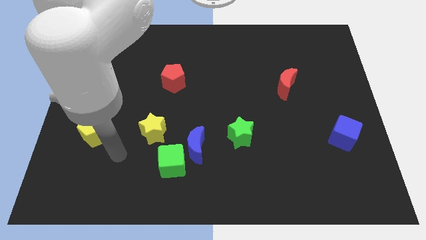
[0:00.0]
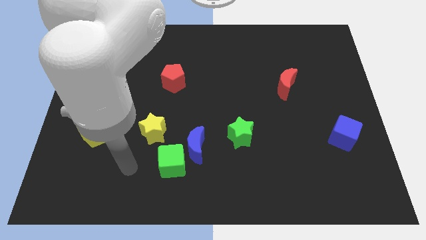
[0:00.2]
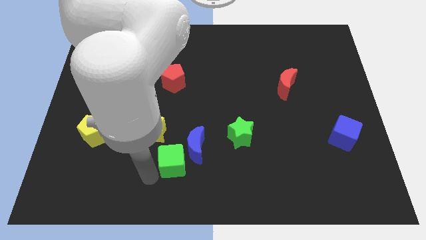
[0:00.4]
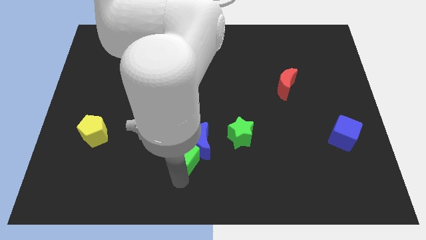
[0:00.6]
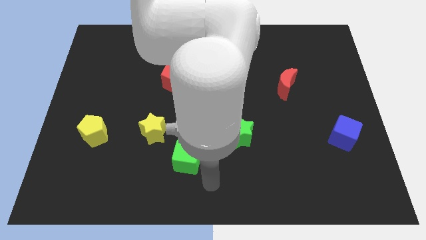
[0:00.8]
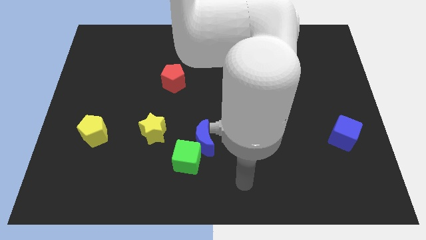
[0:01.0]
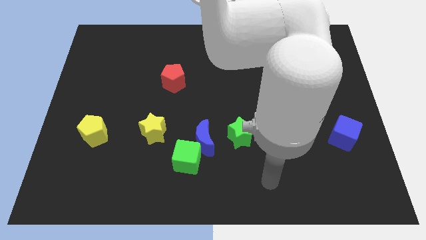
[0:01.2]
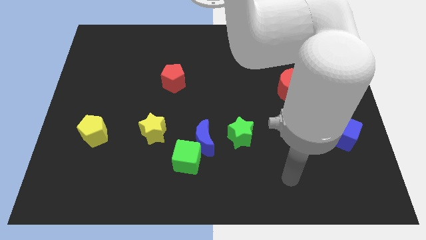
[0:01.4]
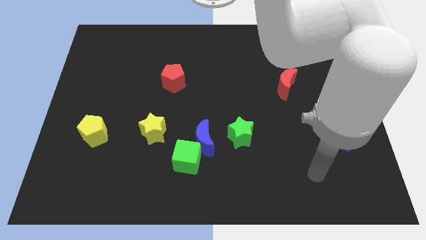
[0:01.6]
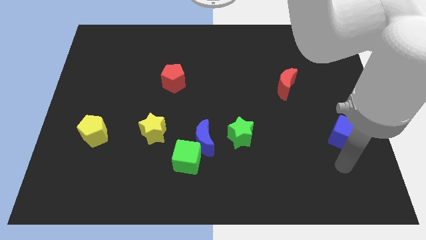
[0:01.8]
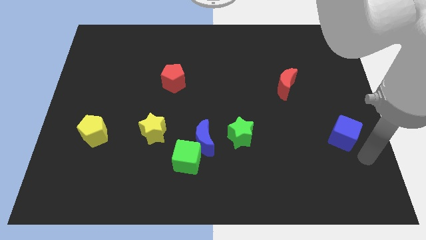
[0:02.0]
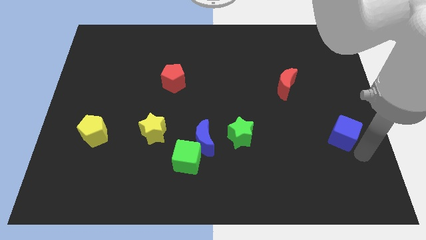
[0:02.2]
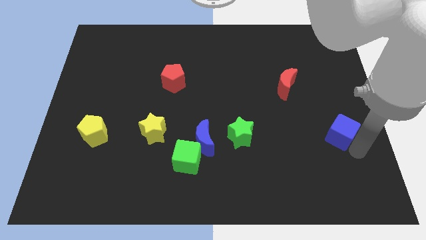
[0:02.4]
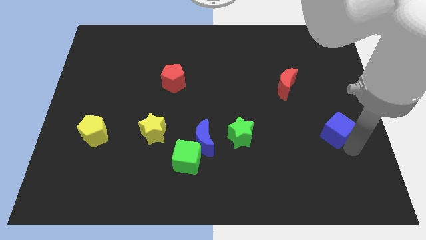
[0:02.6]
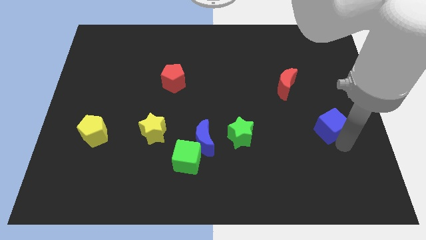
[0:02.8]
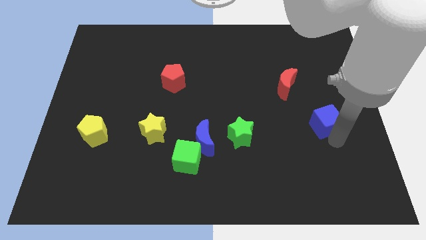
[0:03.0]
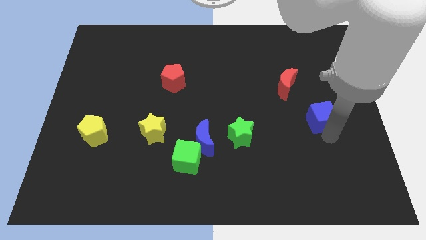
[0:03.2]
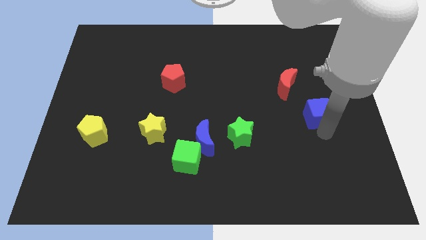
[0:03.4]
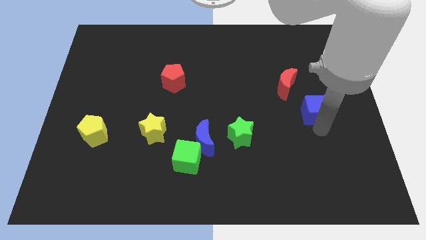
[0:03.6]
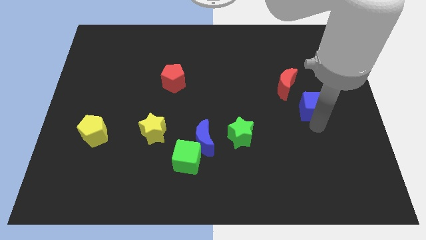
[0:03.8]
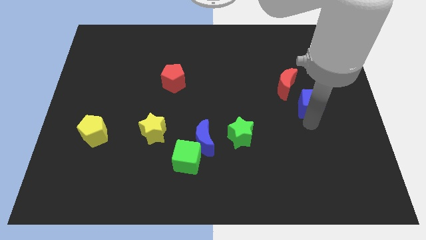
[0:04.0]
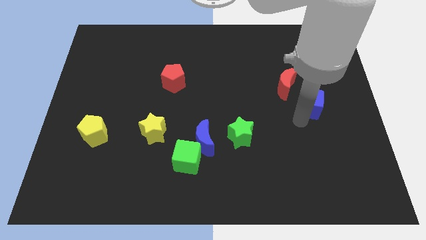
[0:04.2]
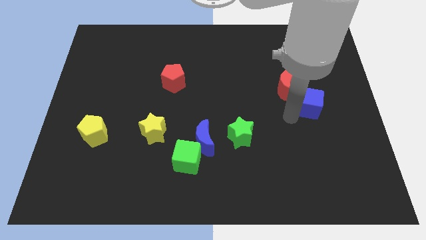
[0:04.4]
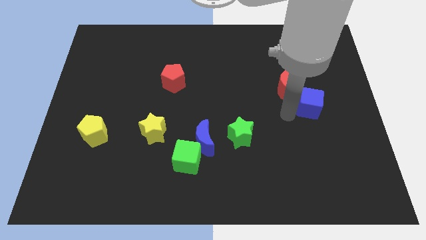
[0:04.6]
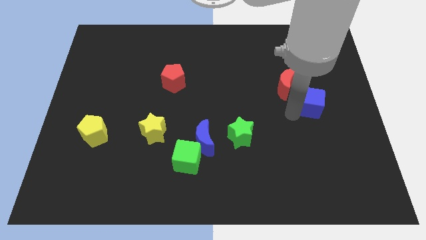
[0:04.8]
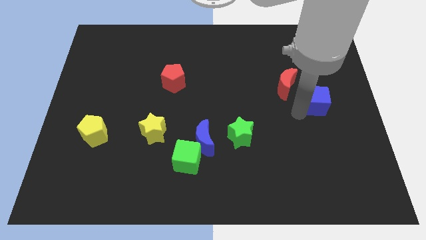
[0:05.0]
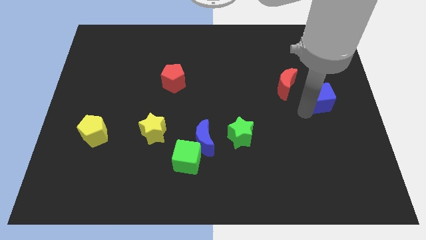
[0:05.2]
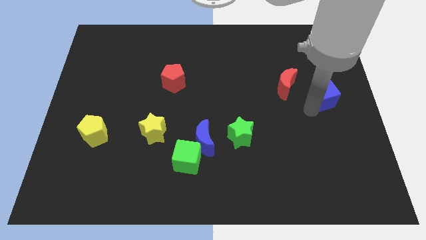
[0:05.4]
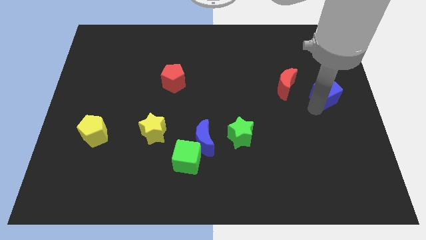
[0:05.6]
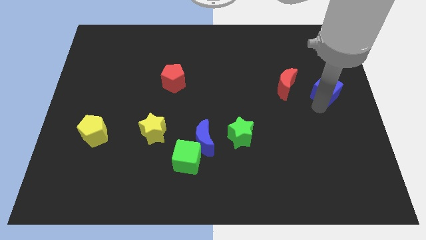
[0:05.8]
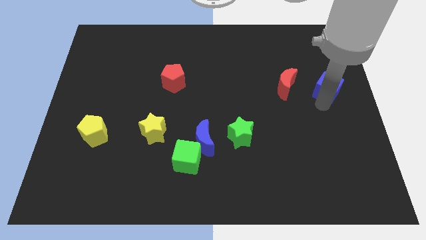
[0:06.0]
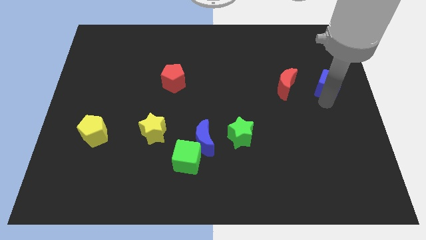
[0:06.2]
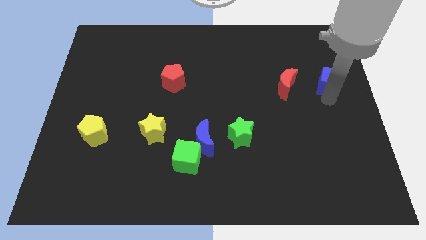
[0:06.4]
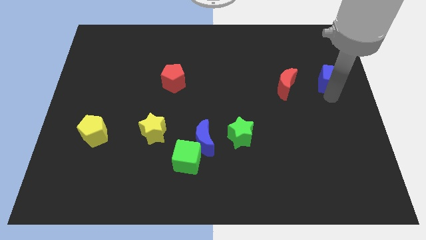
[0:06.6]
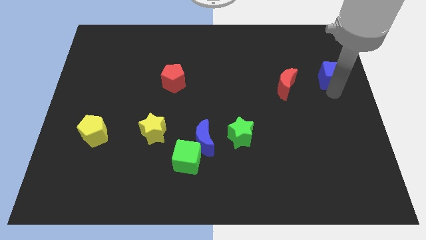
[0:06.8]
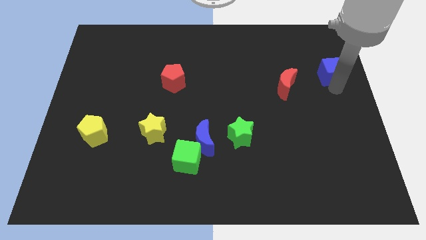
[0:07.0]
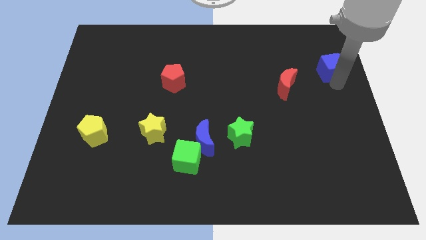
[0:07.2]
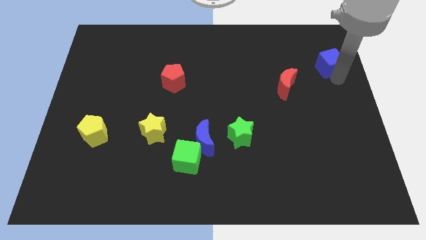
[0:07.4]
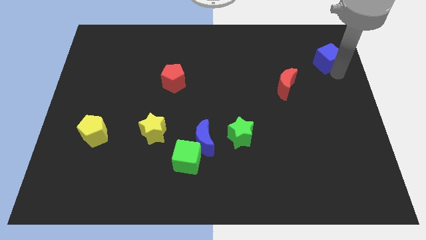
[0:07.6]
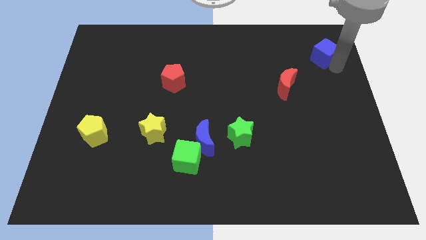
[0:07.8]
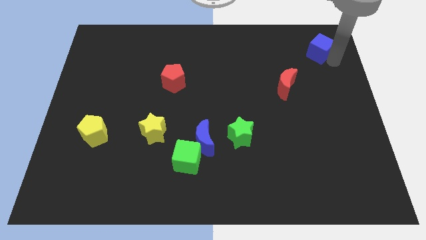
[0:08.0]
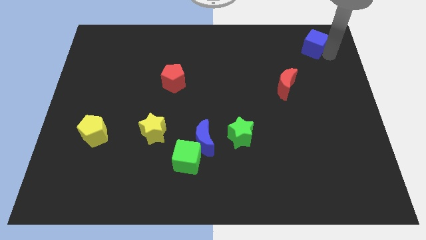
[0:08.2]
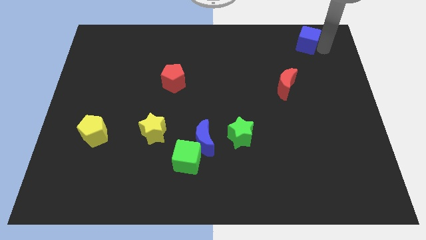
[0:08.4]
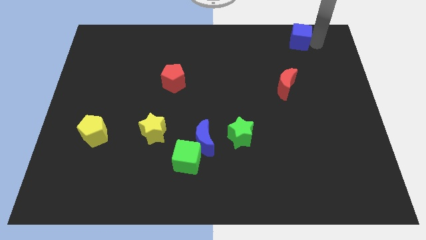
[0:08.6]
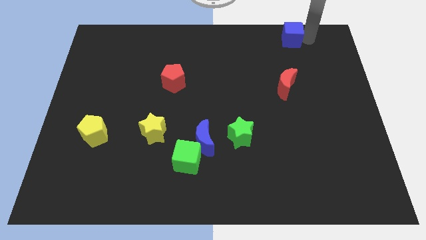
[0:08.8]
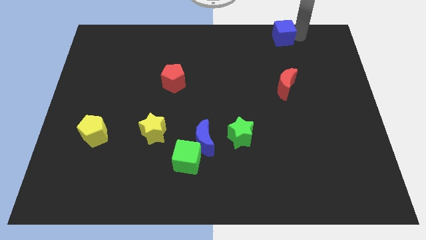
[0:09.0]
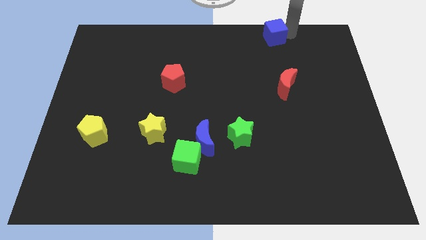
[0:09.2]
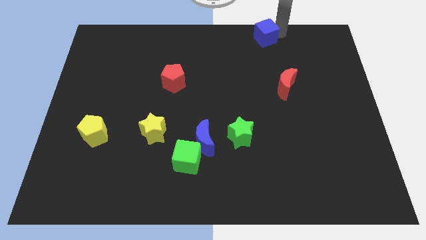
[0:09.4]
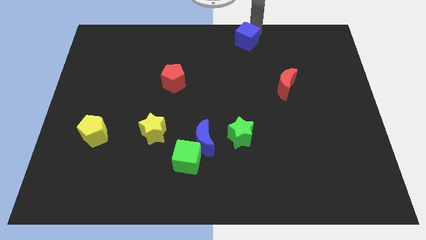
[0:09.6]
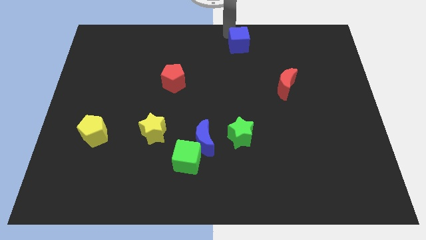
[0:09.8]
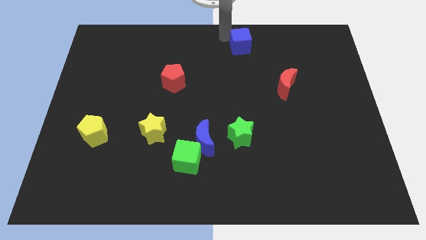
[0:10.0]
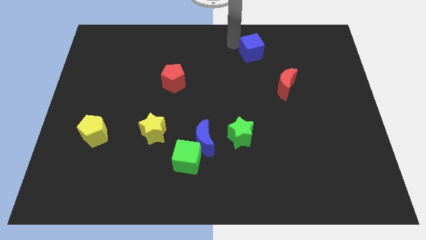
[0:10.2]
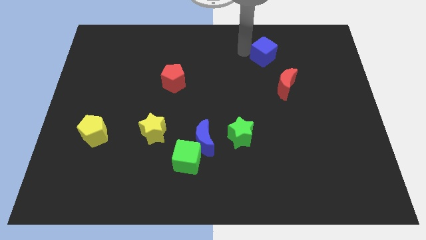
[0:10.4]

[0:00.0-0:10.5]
put the blue cube above the red moon

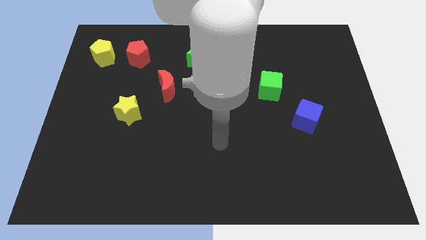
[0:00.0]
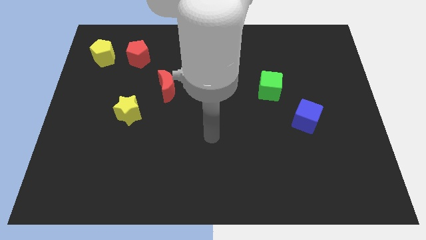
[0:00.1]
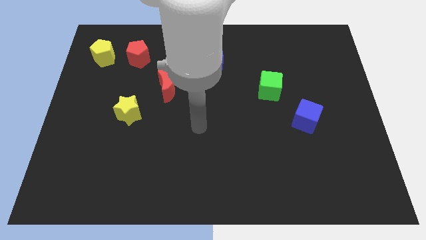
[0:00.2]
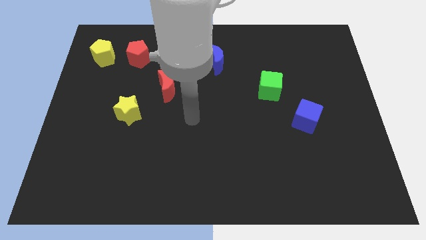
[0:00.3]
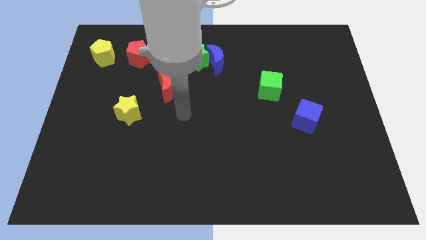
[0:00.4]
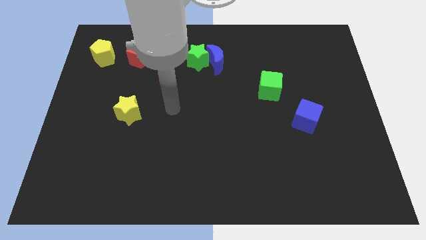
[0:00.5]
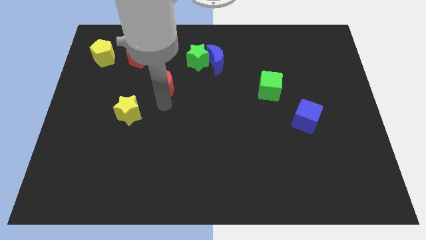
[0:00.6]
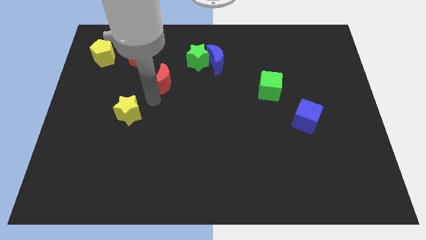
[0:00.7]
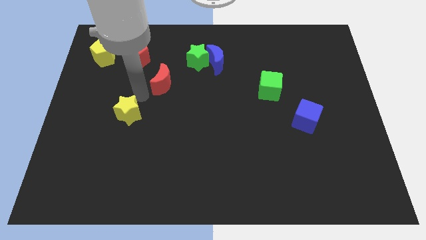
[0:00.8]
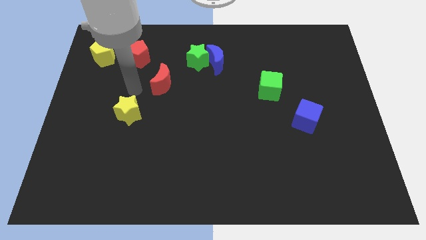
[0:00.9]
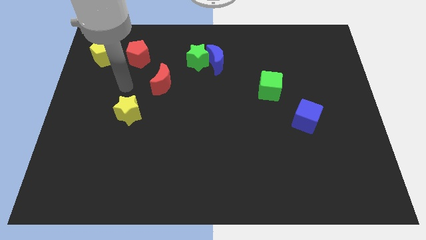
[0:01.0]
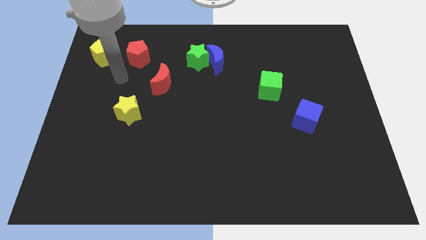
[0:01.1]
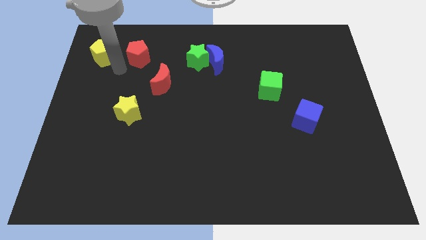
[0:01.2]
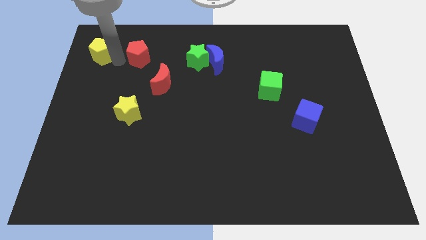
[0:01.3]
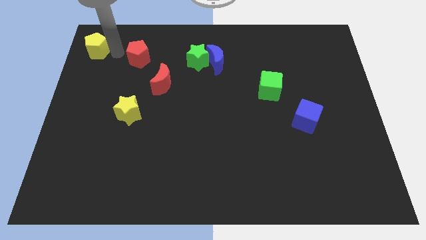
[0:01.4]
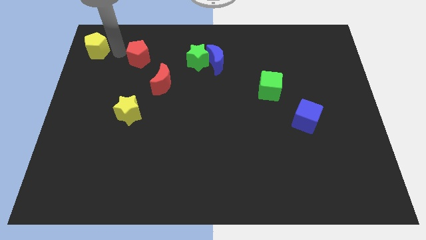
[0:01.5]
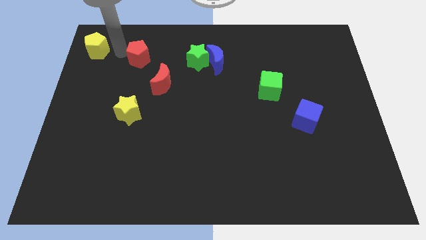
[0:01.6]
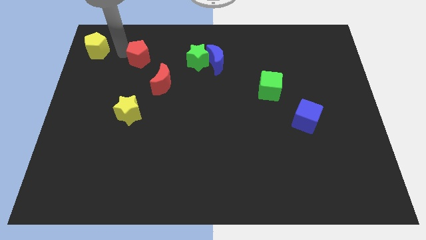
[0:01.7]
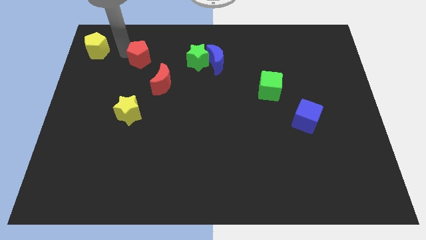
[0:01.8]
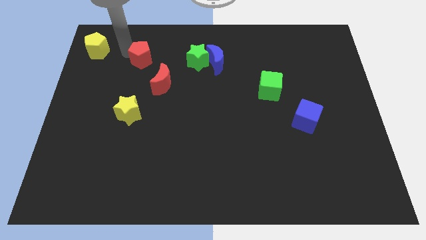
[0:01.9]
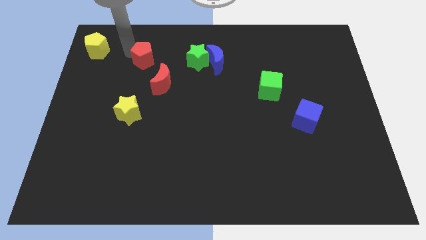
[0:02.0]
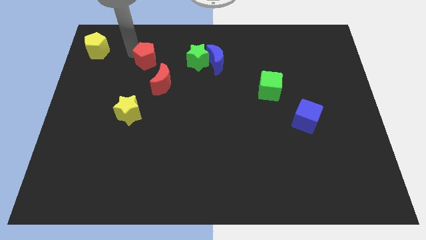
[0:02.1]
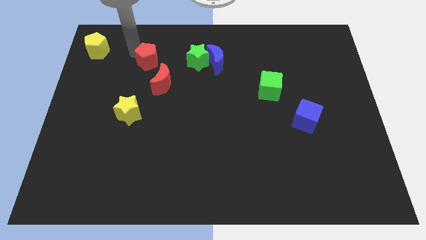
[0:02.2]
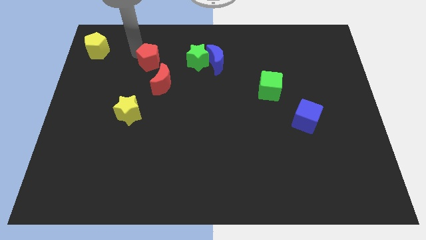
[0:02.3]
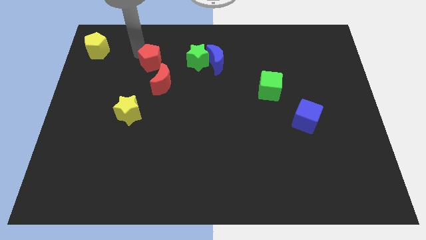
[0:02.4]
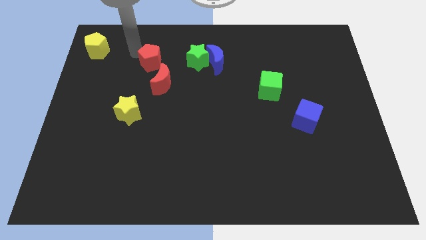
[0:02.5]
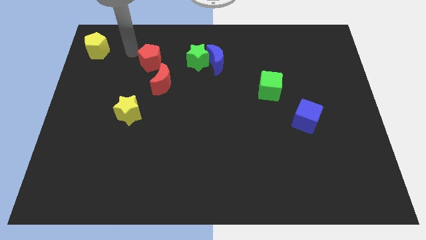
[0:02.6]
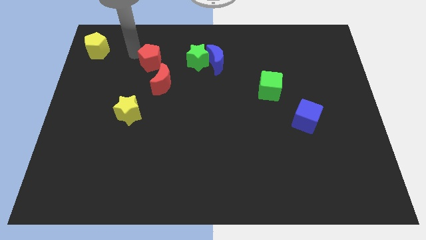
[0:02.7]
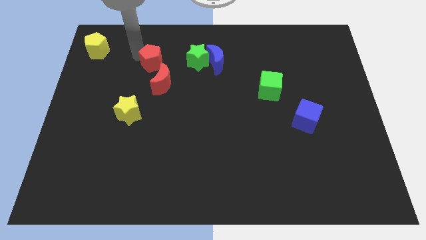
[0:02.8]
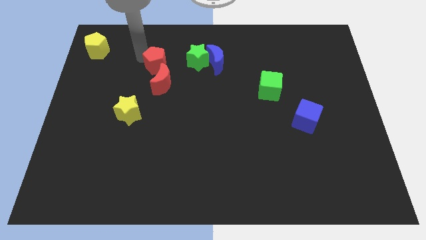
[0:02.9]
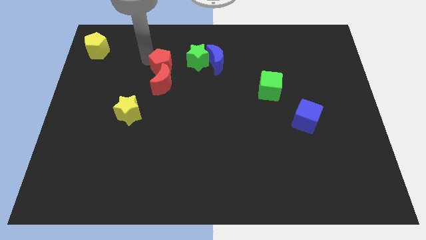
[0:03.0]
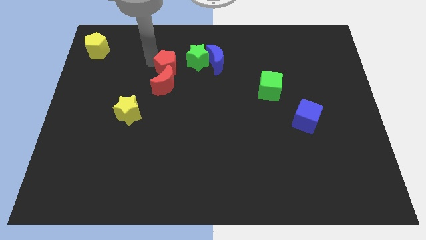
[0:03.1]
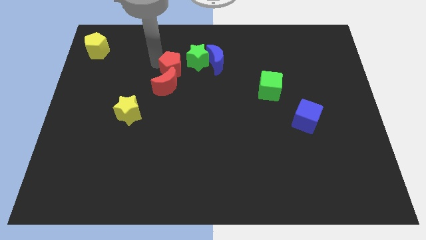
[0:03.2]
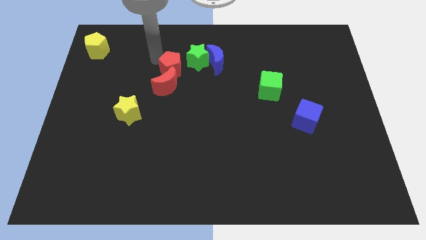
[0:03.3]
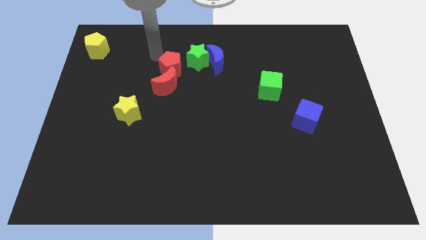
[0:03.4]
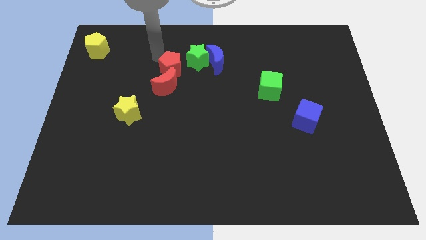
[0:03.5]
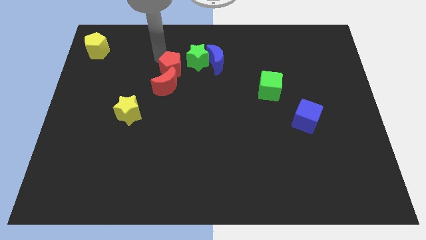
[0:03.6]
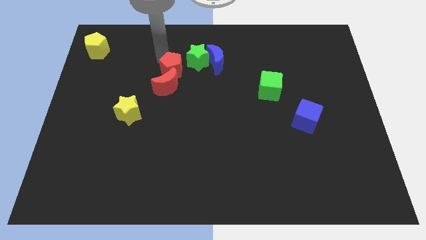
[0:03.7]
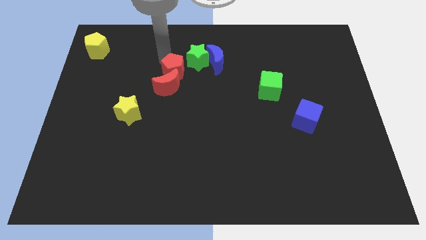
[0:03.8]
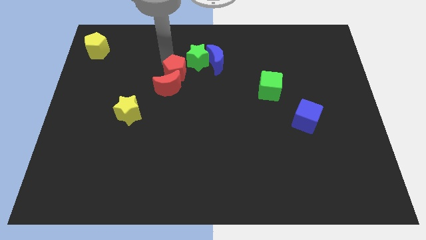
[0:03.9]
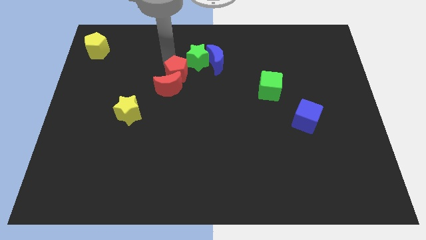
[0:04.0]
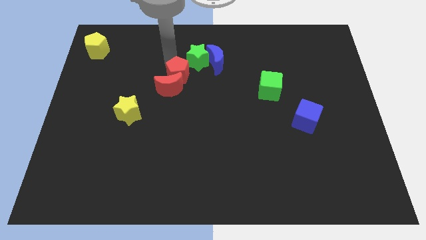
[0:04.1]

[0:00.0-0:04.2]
move the red pentagon to the bottom of the green star
